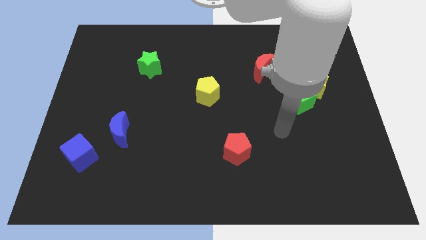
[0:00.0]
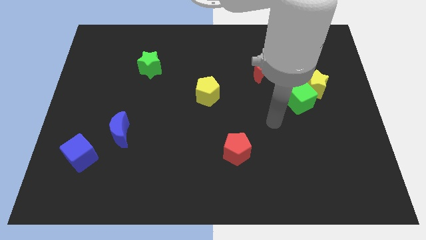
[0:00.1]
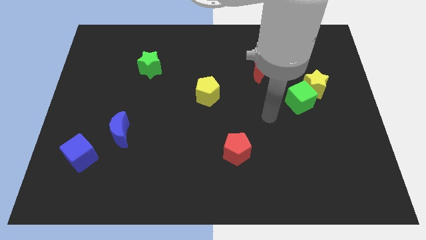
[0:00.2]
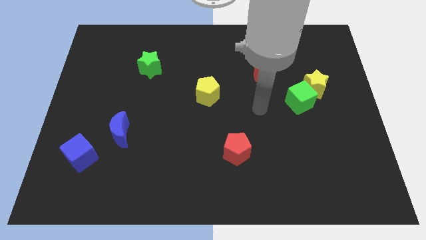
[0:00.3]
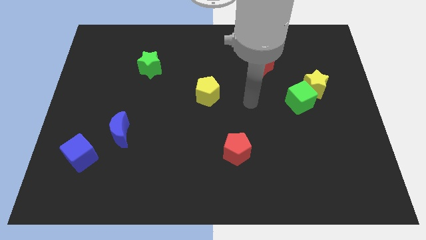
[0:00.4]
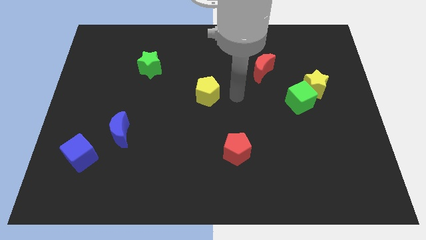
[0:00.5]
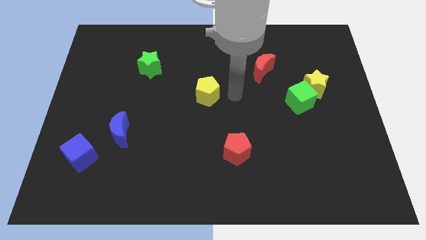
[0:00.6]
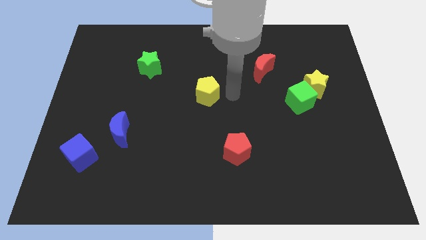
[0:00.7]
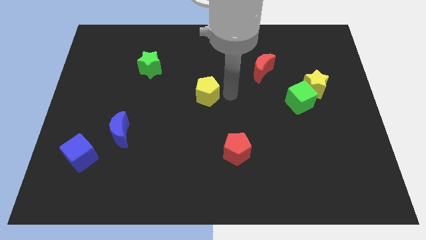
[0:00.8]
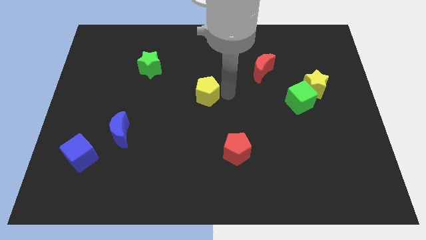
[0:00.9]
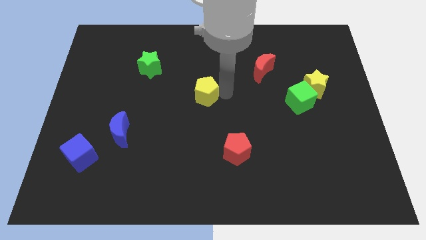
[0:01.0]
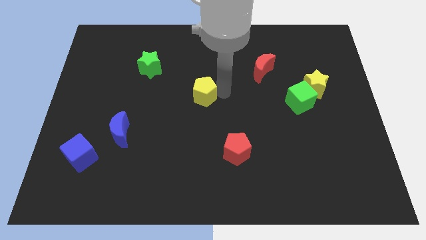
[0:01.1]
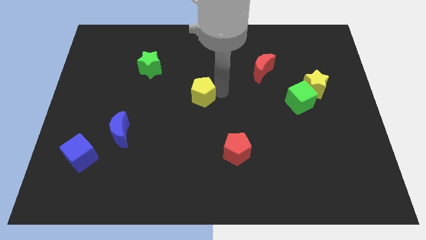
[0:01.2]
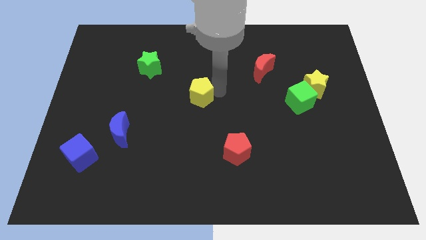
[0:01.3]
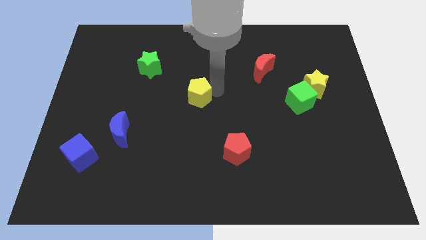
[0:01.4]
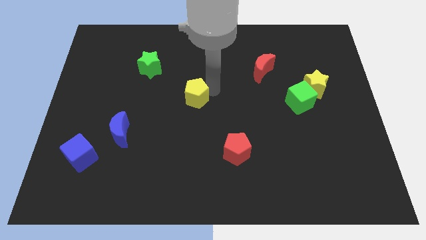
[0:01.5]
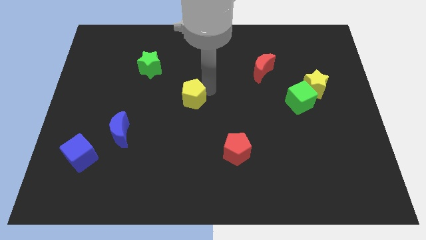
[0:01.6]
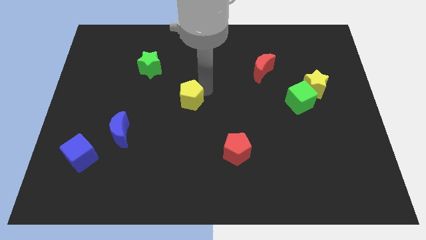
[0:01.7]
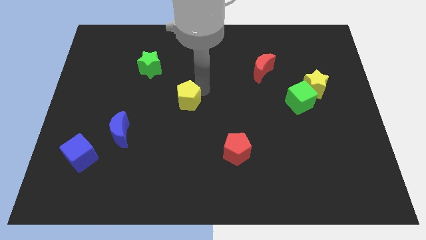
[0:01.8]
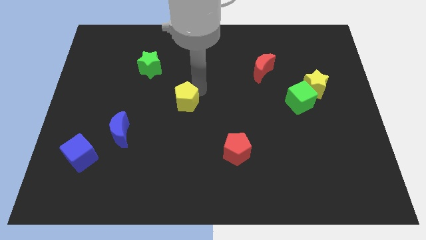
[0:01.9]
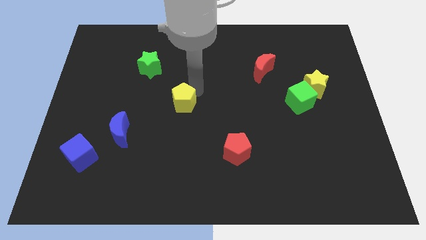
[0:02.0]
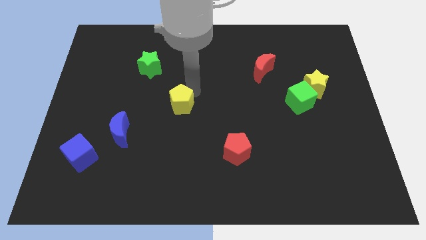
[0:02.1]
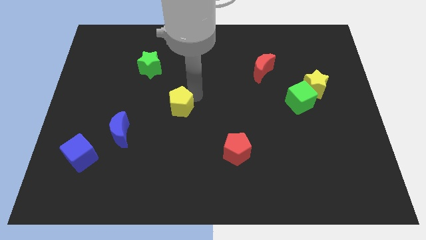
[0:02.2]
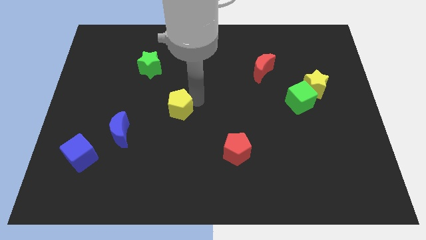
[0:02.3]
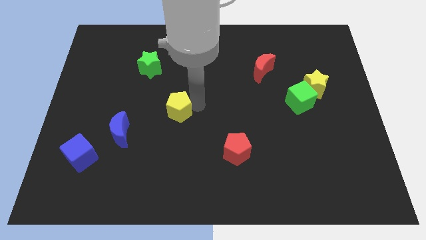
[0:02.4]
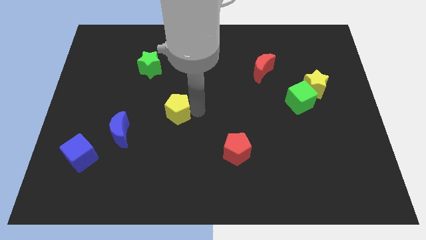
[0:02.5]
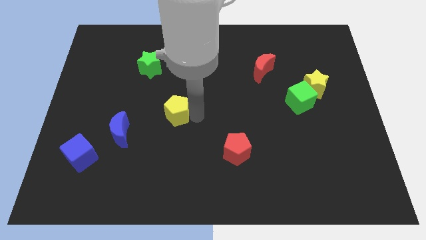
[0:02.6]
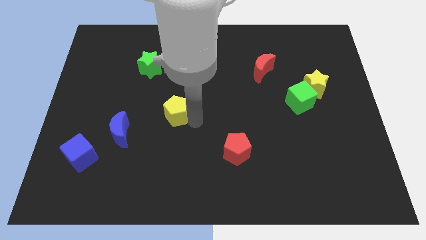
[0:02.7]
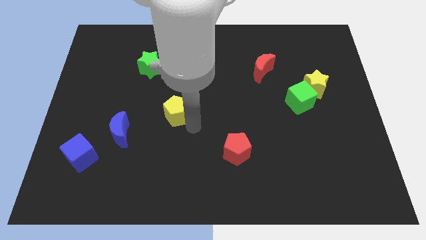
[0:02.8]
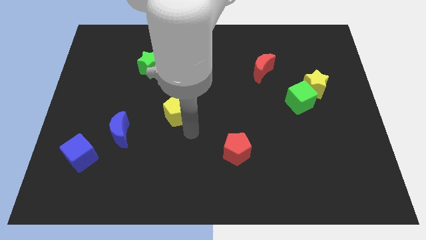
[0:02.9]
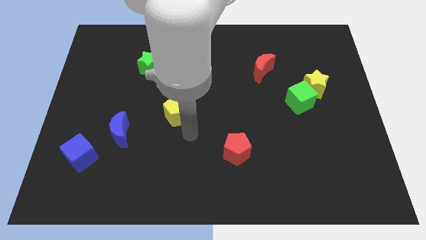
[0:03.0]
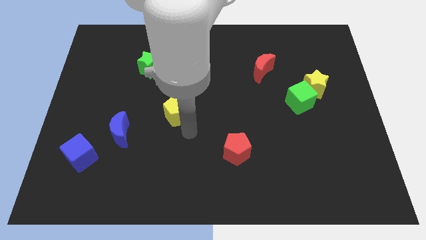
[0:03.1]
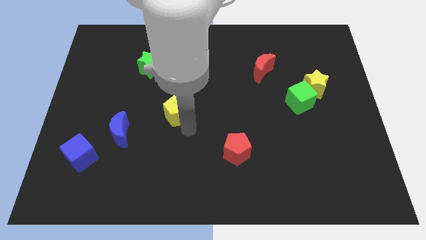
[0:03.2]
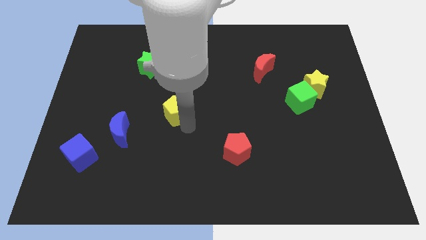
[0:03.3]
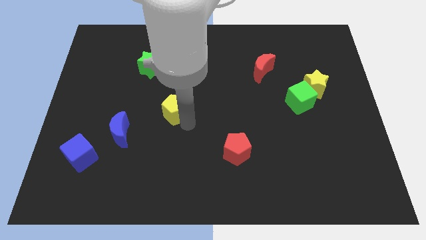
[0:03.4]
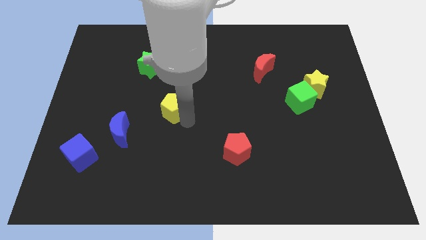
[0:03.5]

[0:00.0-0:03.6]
slightly move the yellow pentagon left

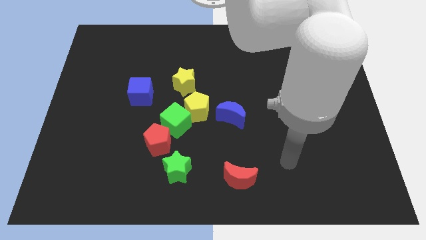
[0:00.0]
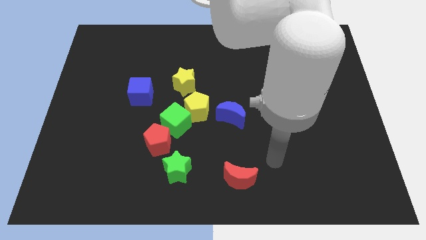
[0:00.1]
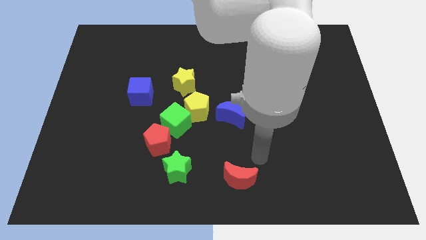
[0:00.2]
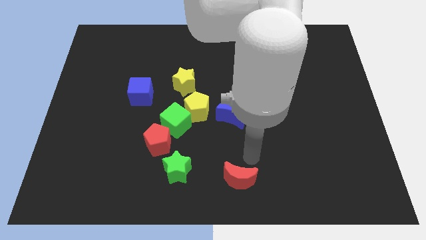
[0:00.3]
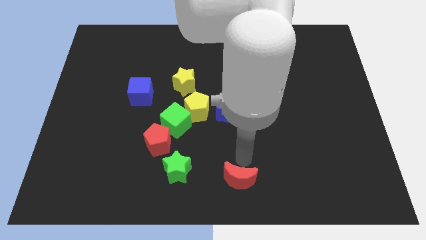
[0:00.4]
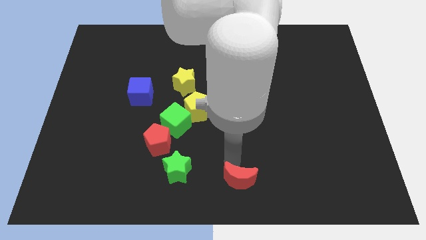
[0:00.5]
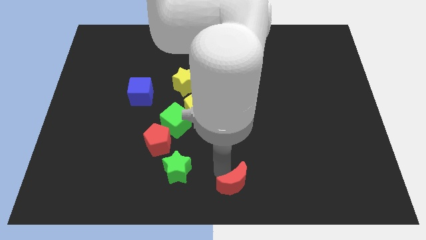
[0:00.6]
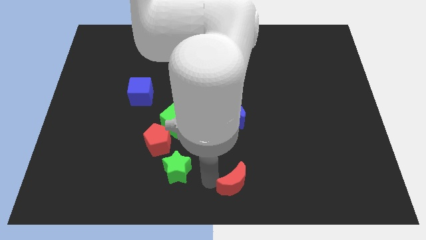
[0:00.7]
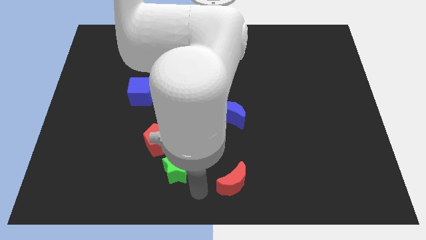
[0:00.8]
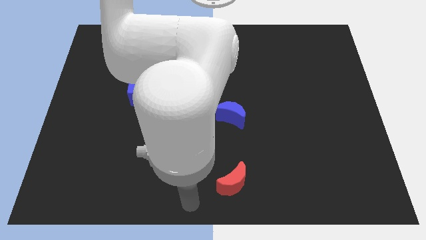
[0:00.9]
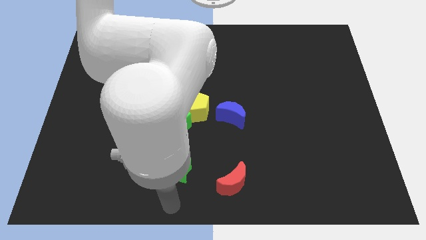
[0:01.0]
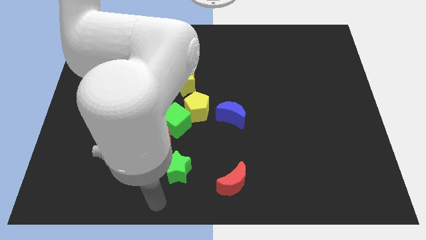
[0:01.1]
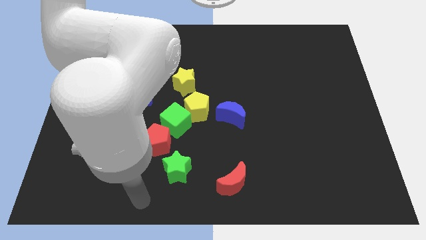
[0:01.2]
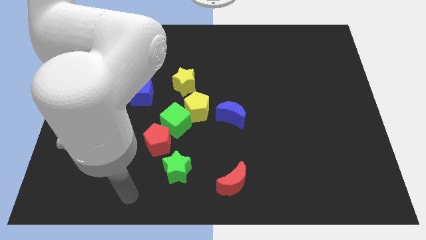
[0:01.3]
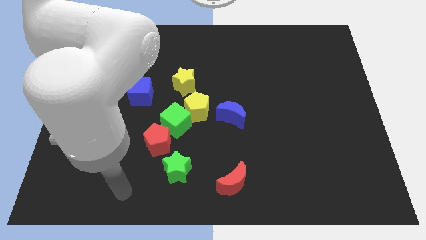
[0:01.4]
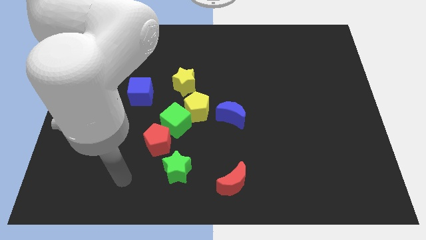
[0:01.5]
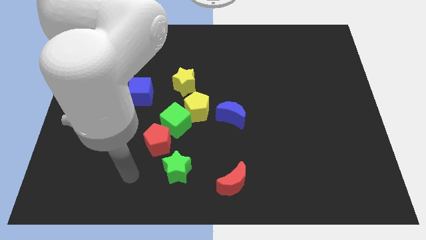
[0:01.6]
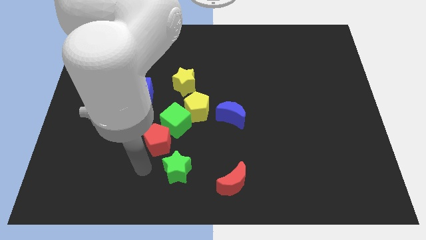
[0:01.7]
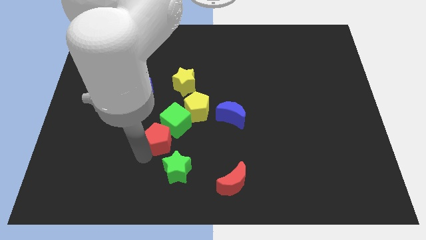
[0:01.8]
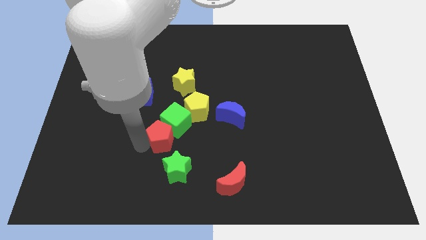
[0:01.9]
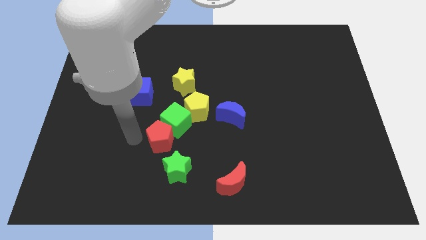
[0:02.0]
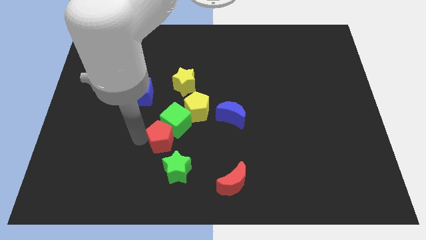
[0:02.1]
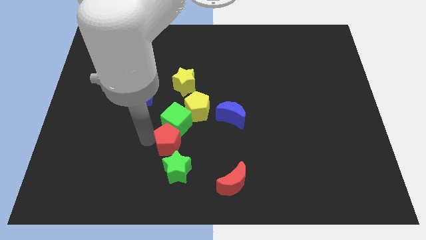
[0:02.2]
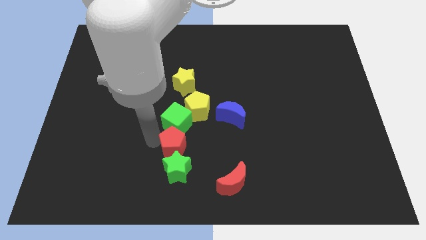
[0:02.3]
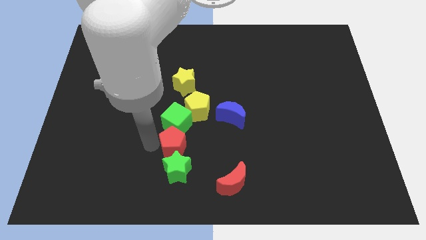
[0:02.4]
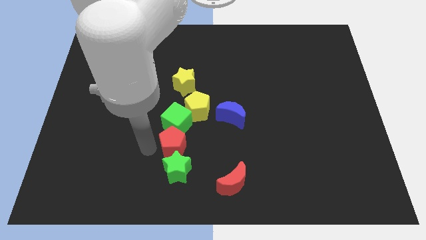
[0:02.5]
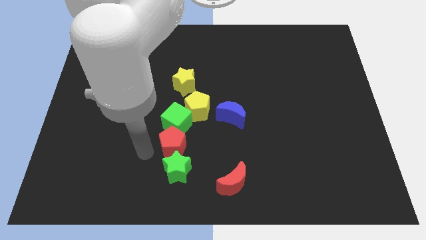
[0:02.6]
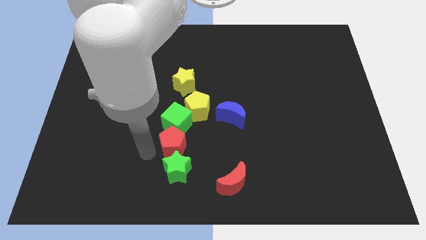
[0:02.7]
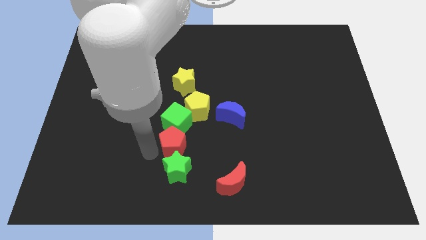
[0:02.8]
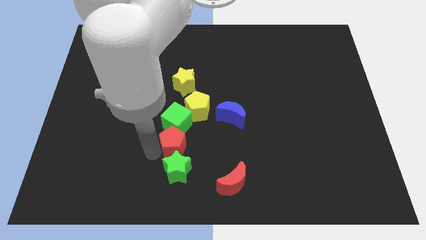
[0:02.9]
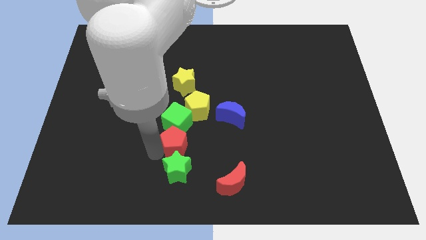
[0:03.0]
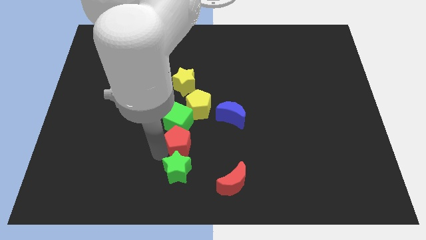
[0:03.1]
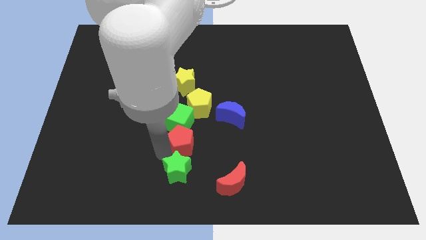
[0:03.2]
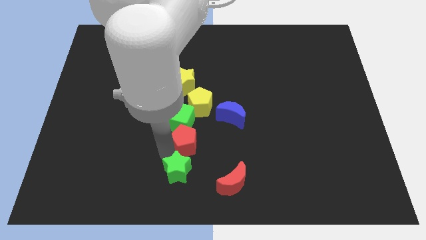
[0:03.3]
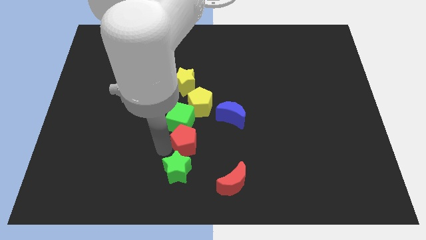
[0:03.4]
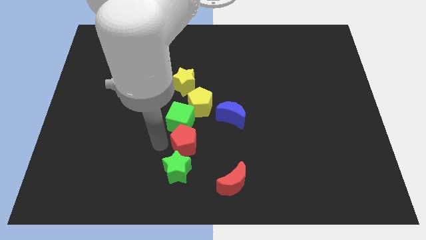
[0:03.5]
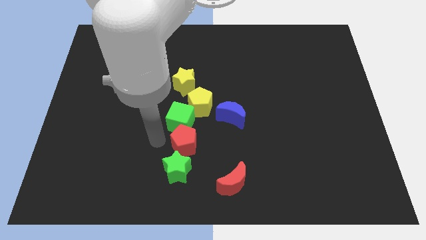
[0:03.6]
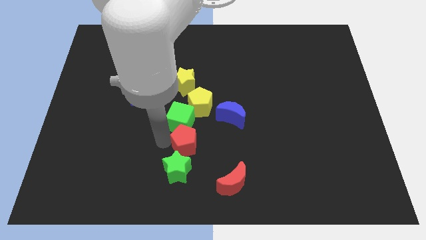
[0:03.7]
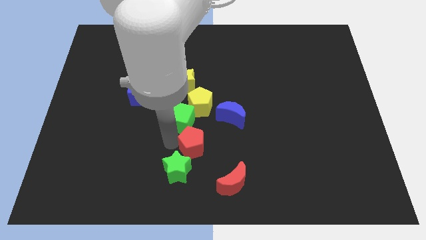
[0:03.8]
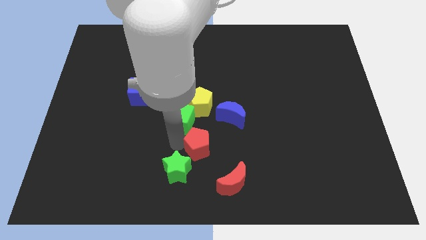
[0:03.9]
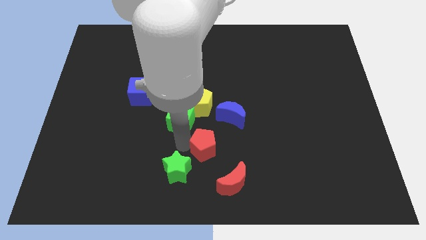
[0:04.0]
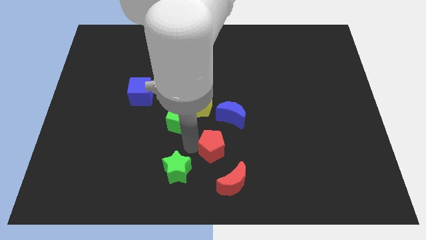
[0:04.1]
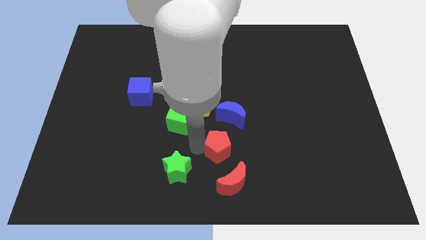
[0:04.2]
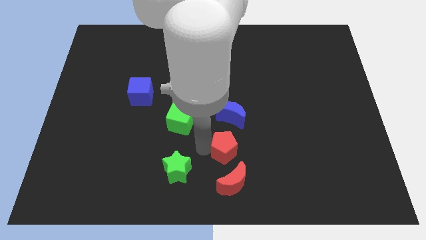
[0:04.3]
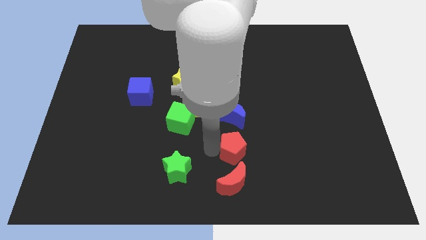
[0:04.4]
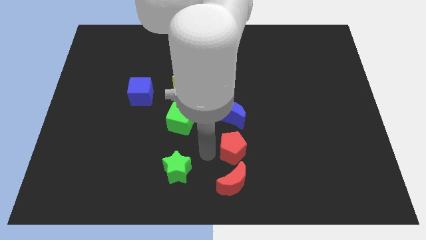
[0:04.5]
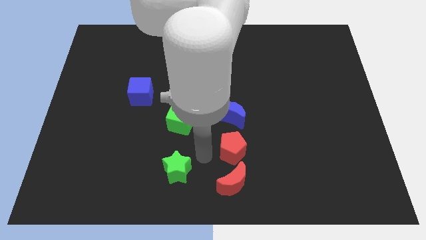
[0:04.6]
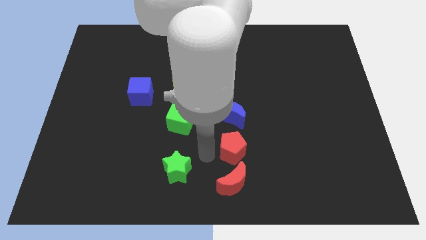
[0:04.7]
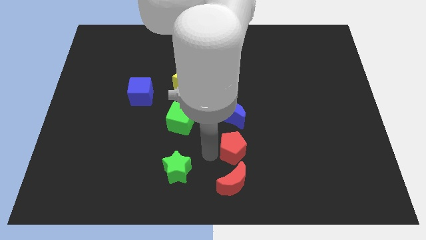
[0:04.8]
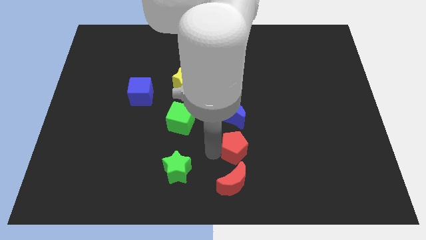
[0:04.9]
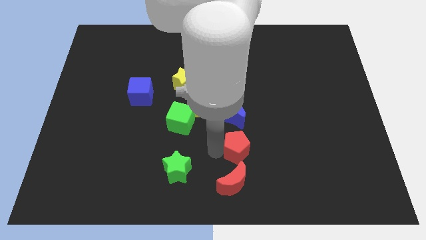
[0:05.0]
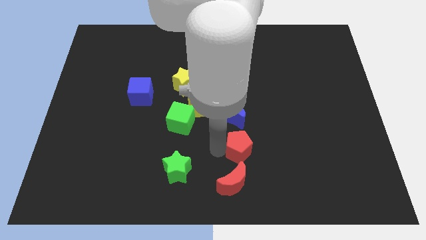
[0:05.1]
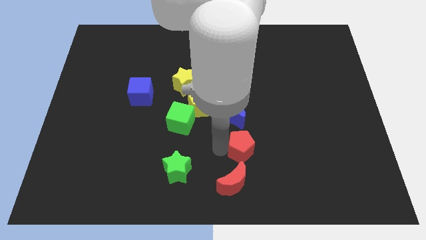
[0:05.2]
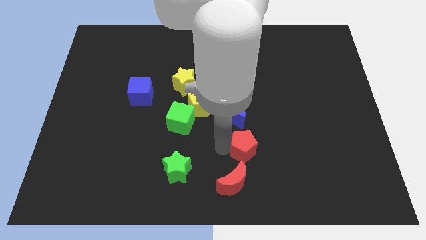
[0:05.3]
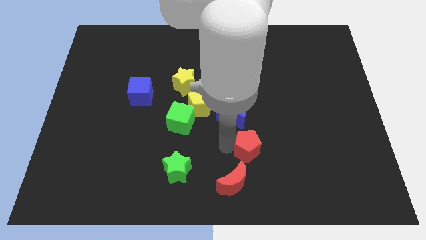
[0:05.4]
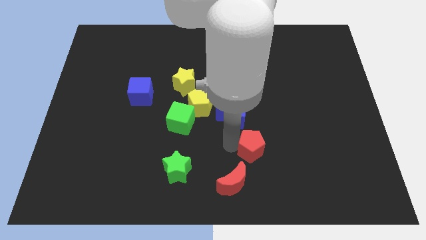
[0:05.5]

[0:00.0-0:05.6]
move the red pentagon right
